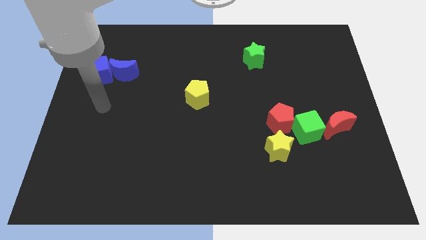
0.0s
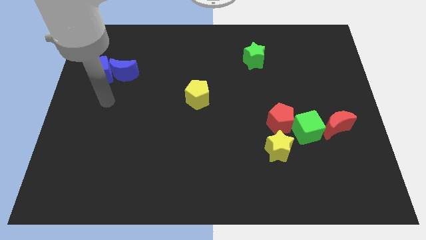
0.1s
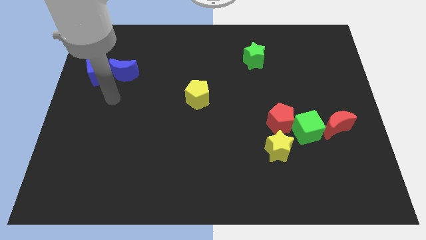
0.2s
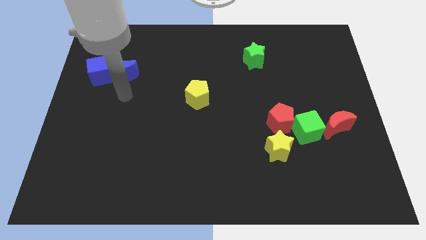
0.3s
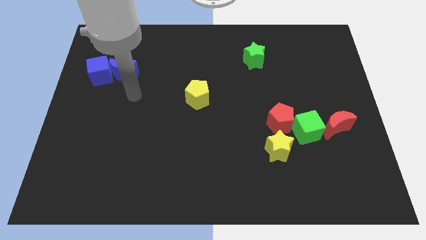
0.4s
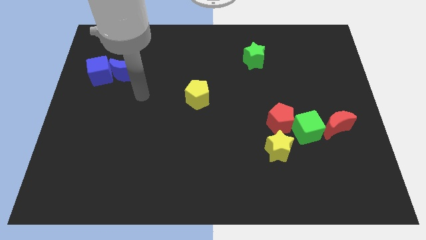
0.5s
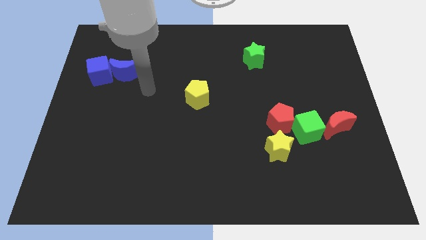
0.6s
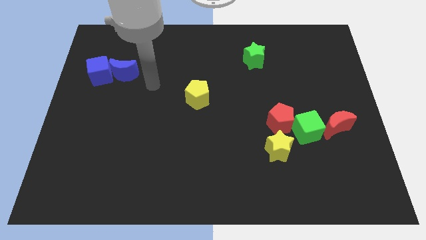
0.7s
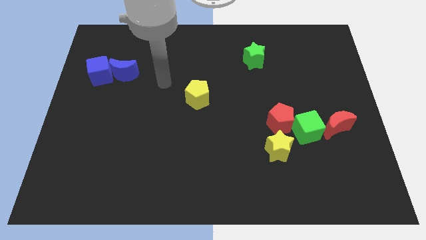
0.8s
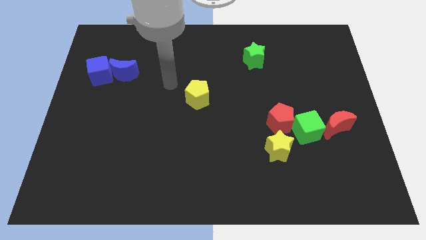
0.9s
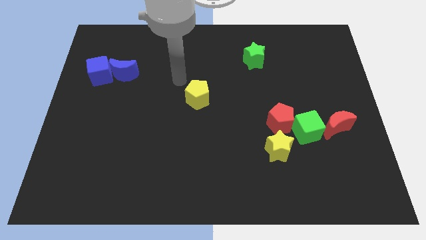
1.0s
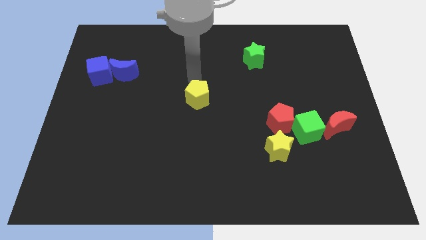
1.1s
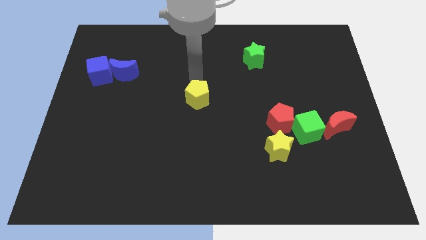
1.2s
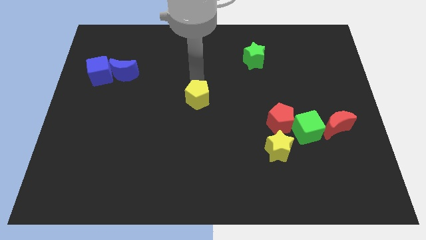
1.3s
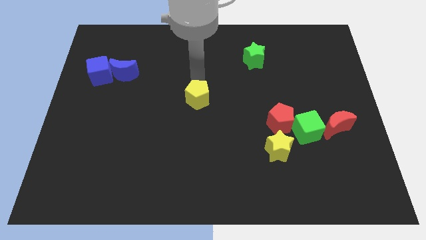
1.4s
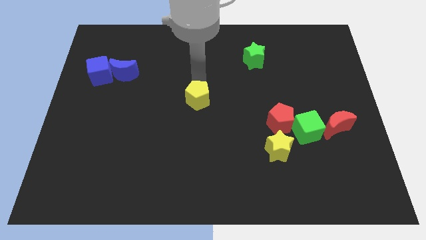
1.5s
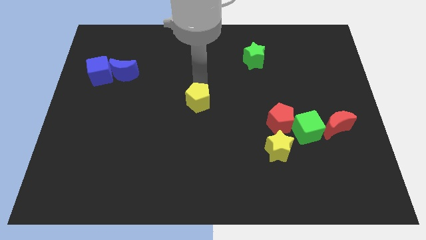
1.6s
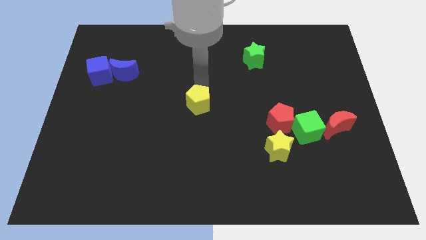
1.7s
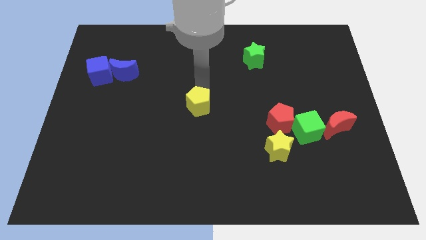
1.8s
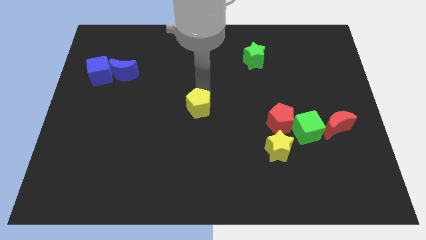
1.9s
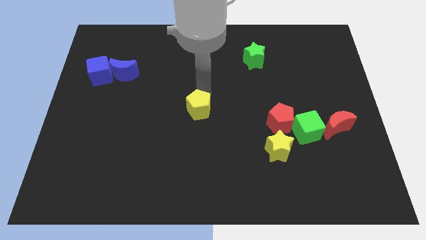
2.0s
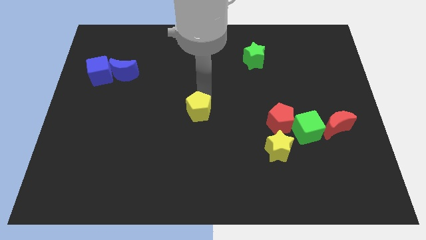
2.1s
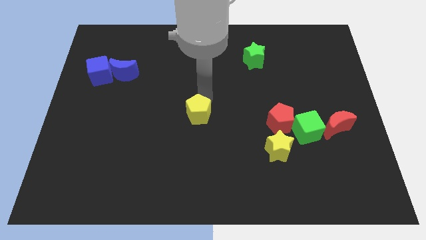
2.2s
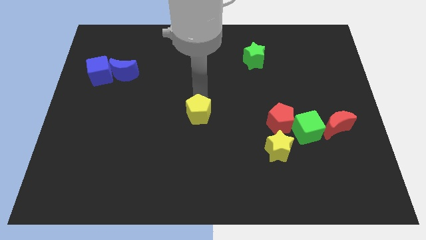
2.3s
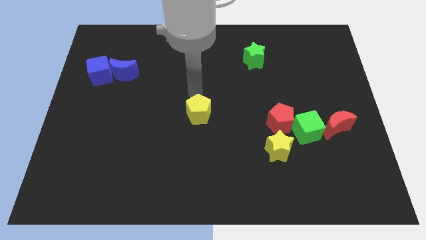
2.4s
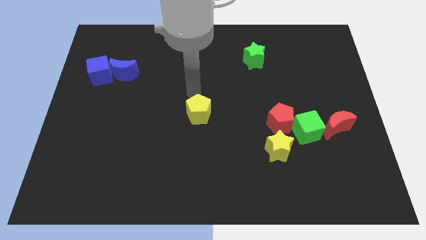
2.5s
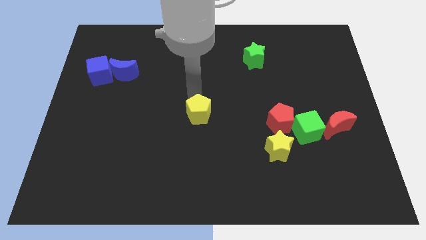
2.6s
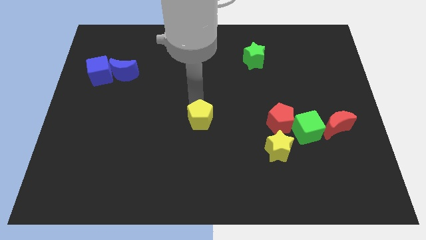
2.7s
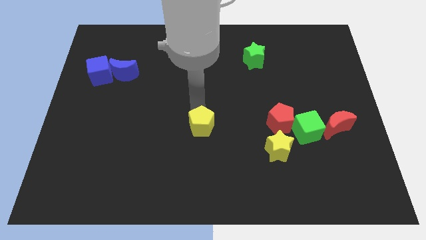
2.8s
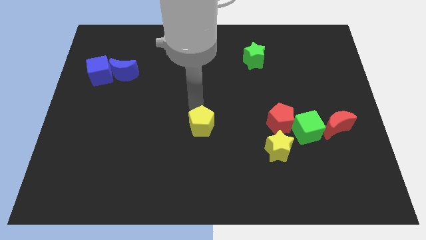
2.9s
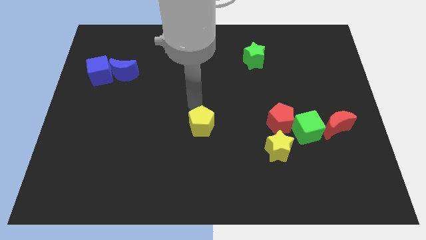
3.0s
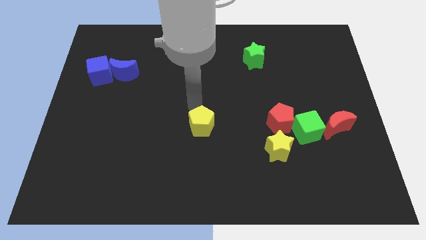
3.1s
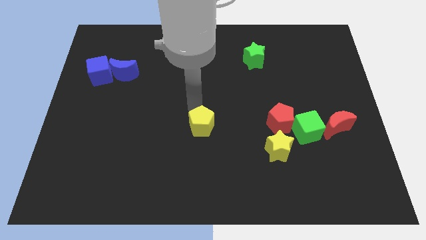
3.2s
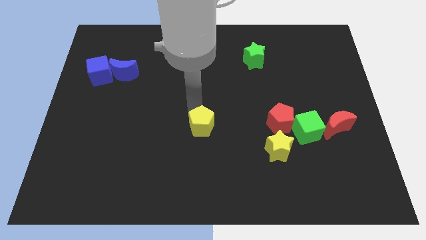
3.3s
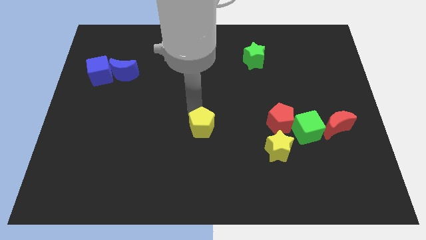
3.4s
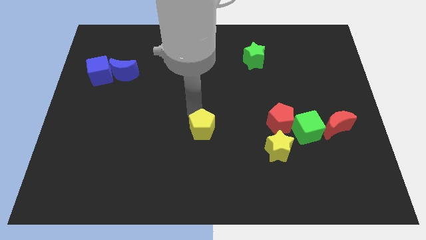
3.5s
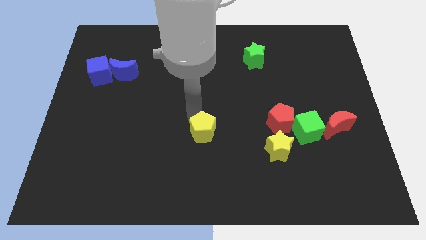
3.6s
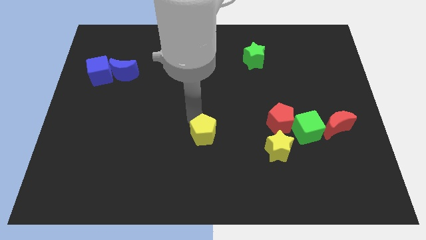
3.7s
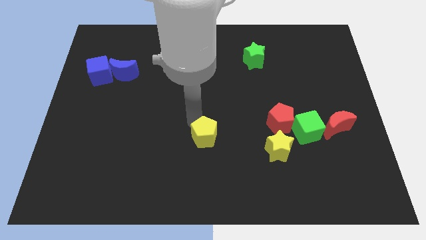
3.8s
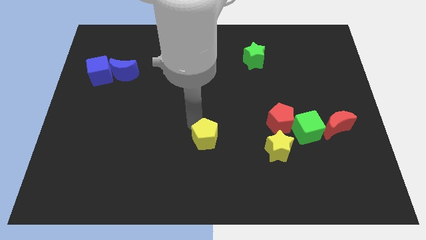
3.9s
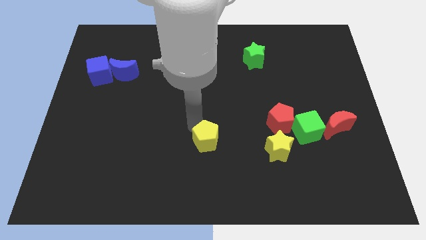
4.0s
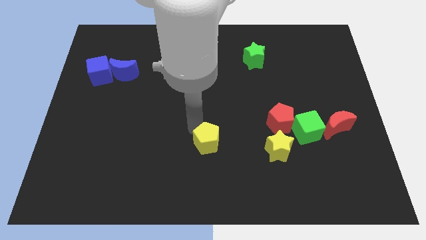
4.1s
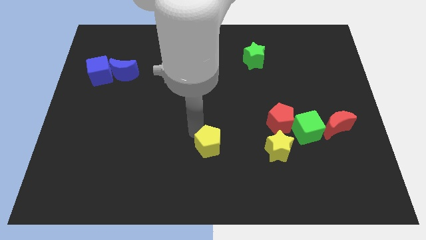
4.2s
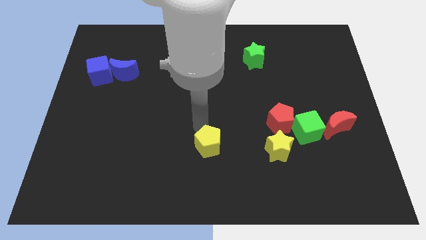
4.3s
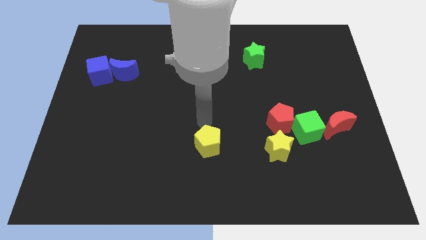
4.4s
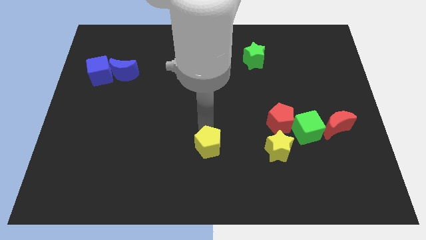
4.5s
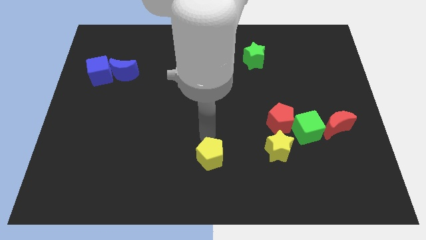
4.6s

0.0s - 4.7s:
slide the yellow pentagon to the bottom side

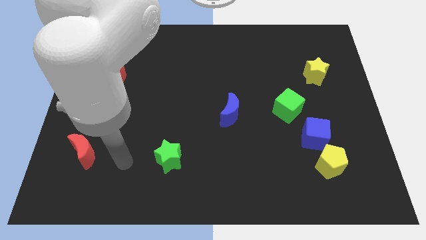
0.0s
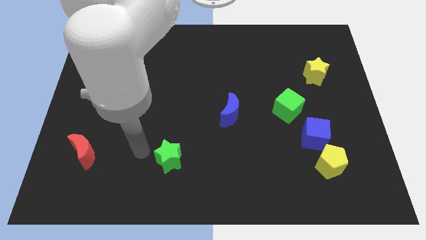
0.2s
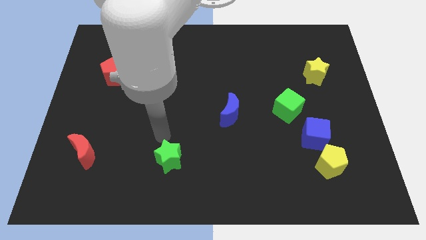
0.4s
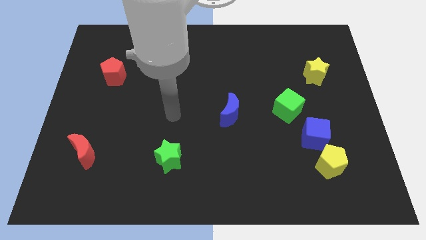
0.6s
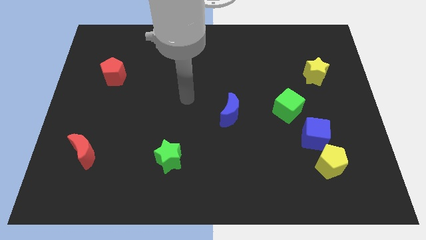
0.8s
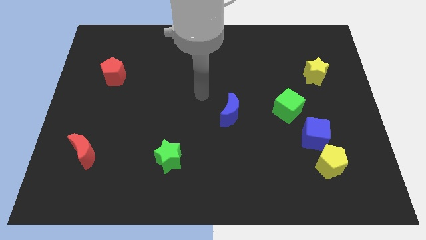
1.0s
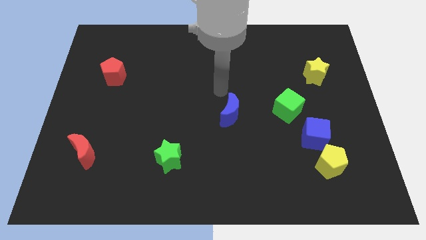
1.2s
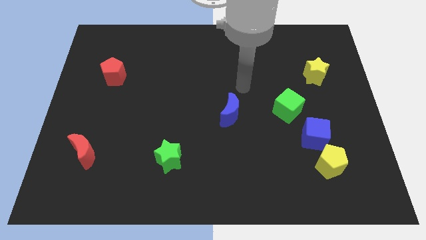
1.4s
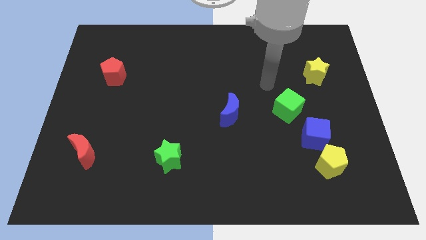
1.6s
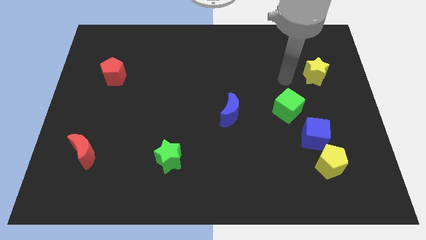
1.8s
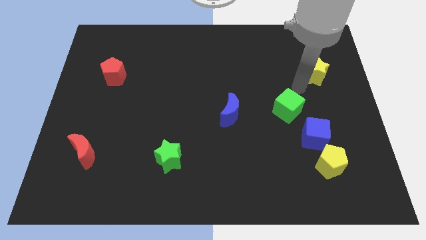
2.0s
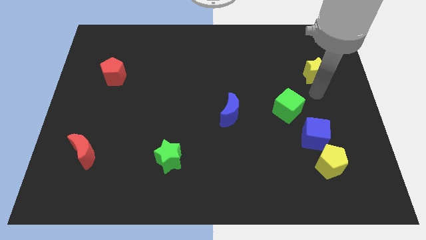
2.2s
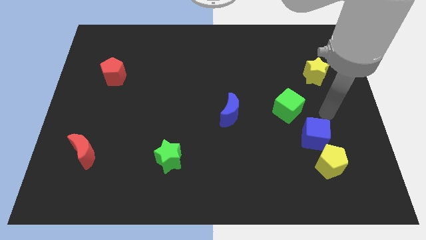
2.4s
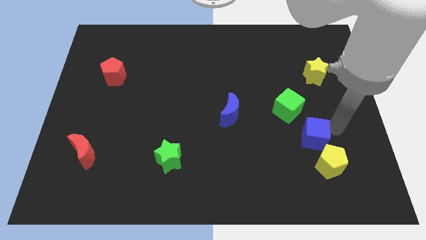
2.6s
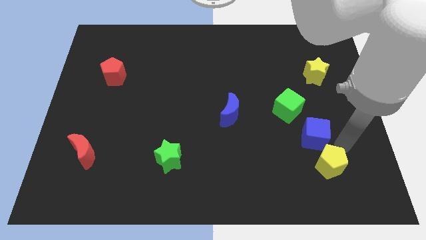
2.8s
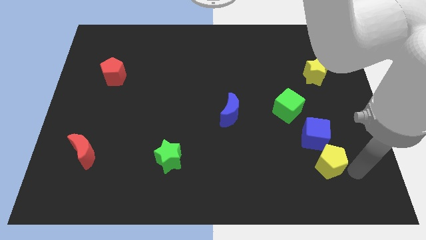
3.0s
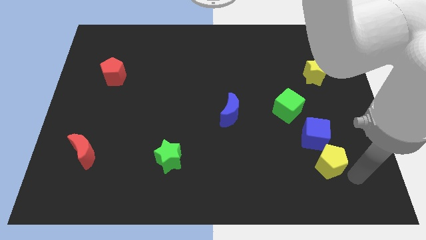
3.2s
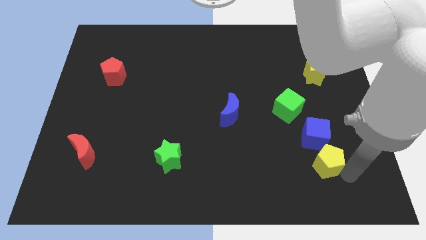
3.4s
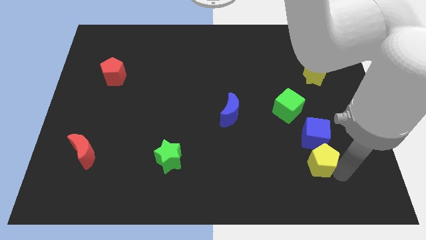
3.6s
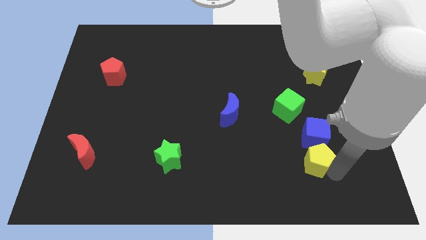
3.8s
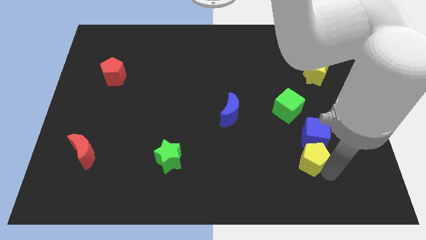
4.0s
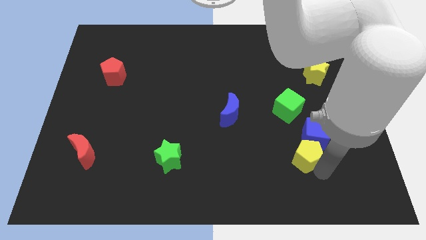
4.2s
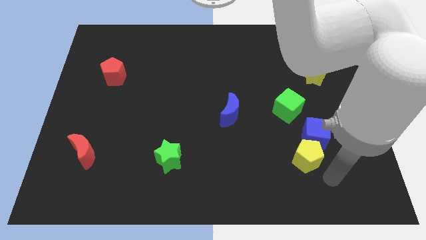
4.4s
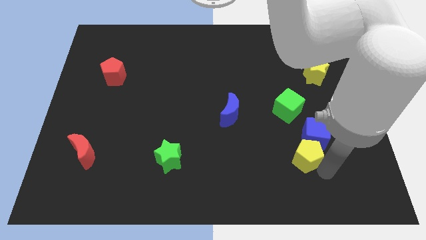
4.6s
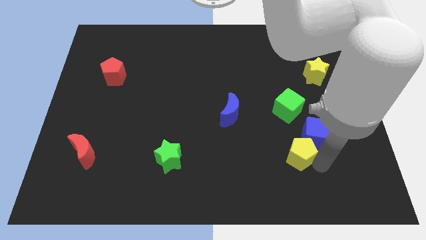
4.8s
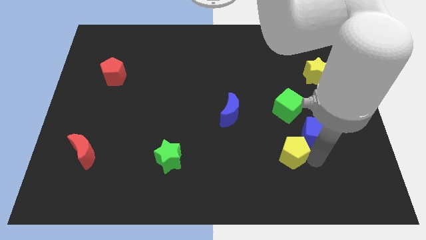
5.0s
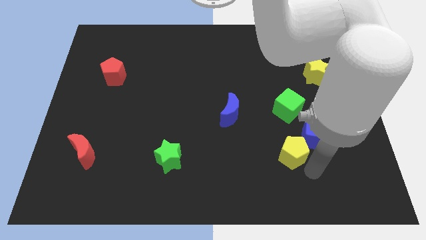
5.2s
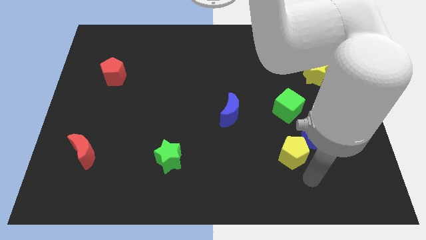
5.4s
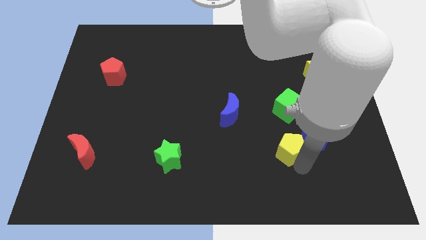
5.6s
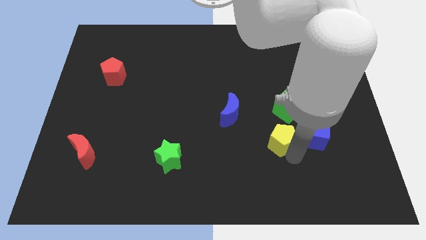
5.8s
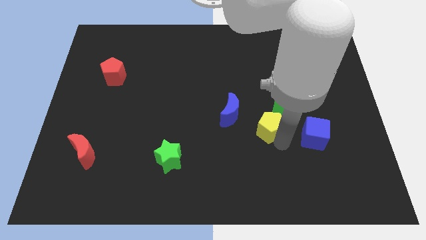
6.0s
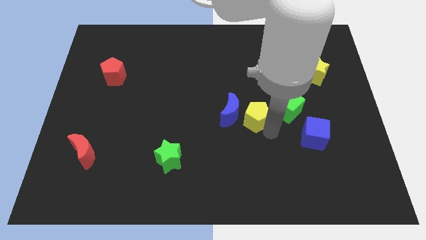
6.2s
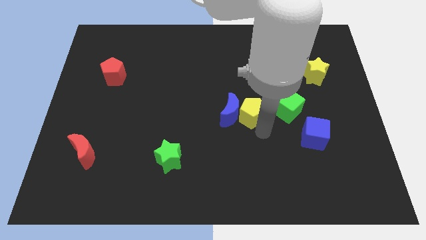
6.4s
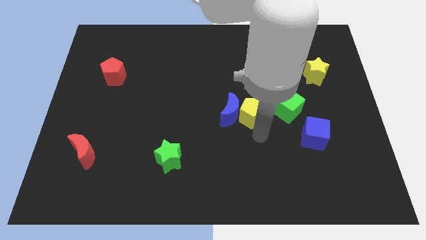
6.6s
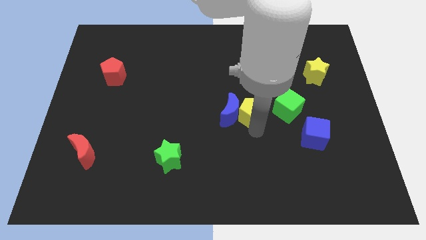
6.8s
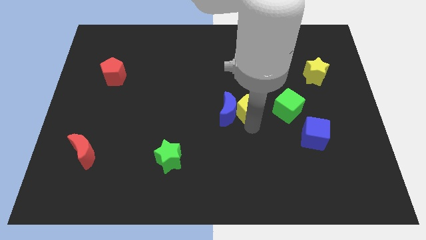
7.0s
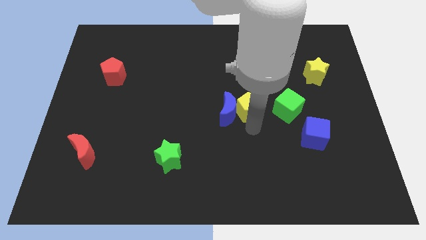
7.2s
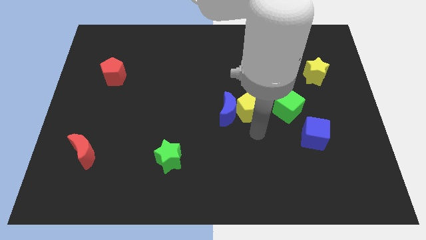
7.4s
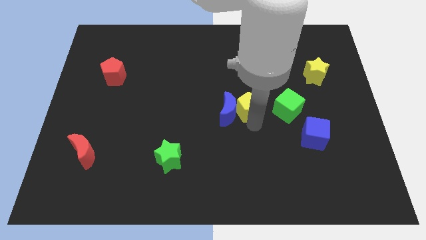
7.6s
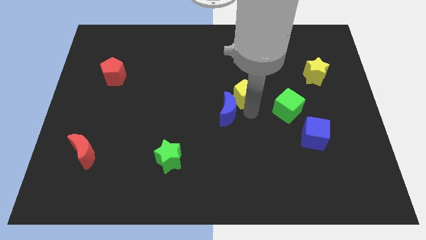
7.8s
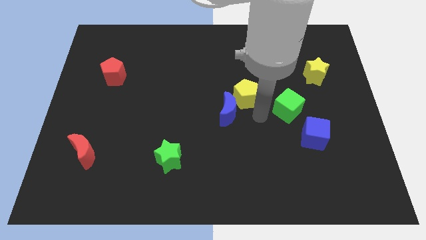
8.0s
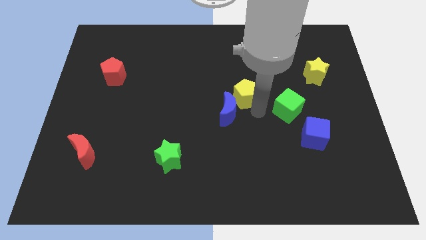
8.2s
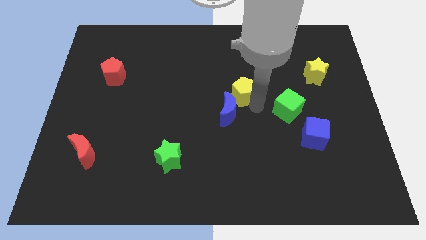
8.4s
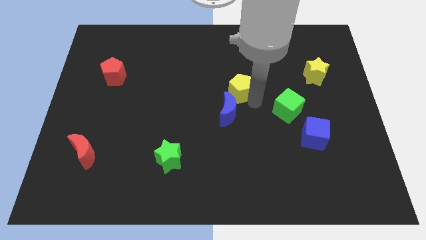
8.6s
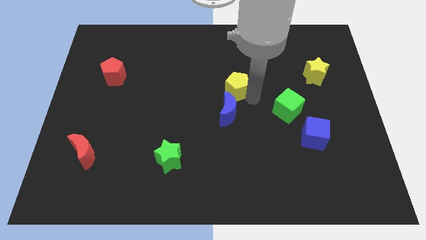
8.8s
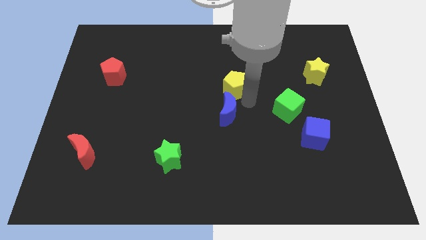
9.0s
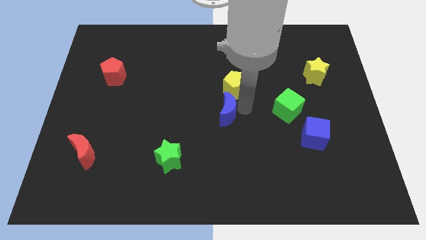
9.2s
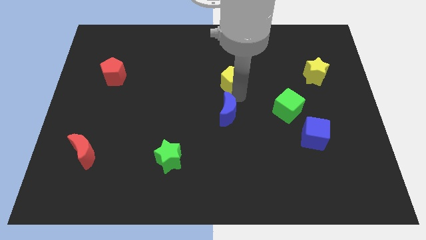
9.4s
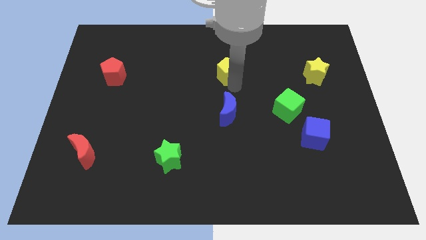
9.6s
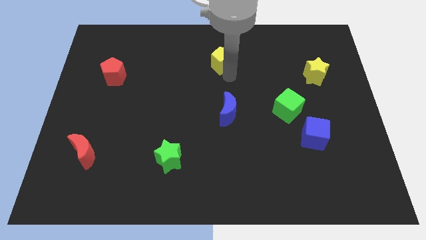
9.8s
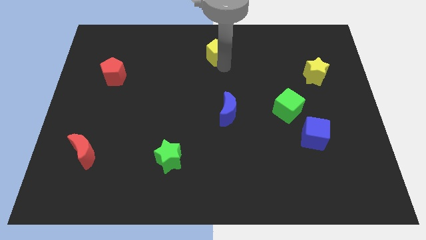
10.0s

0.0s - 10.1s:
put the yellow pentagon to the top side
